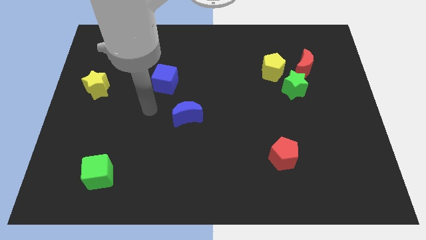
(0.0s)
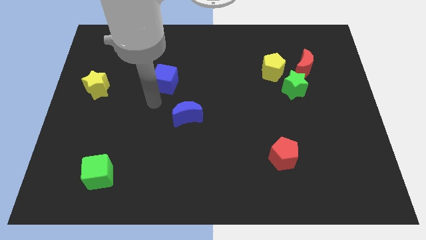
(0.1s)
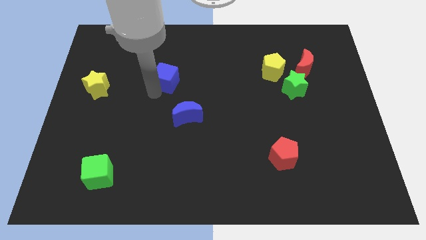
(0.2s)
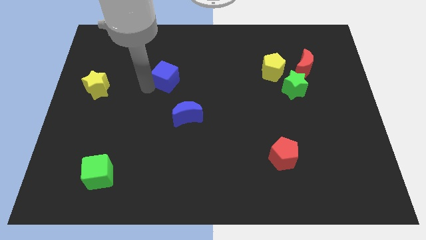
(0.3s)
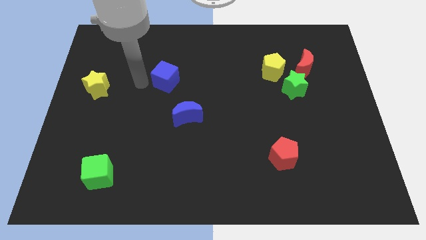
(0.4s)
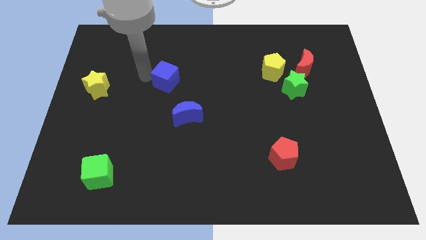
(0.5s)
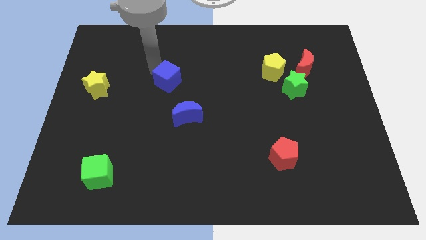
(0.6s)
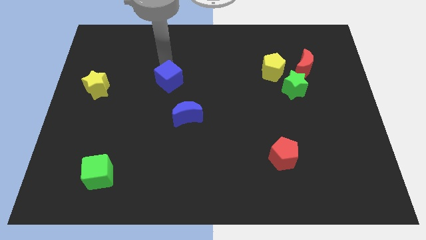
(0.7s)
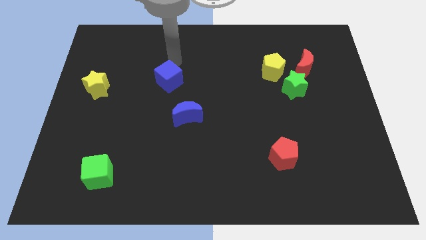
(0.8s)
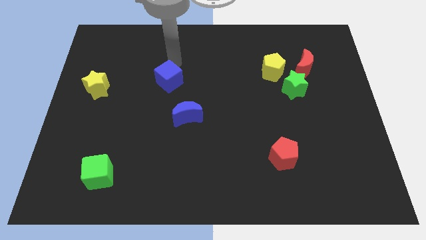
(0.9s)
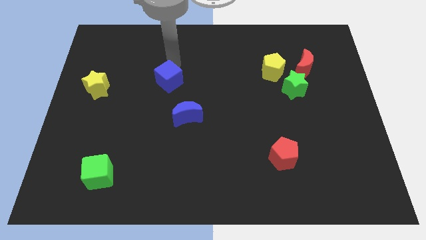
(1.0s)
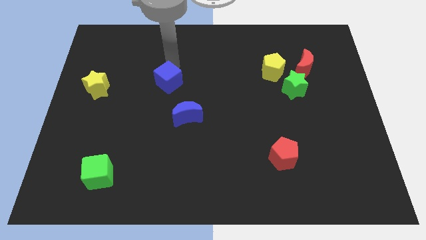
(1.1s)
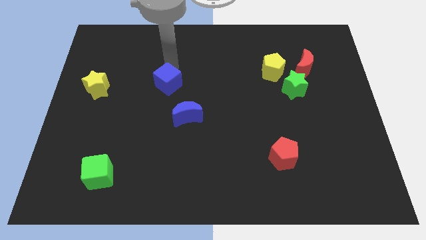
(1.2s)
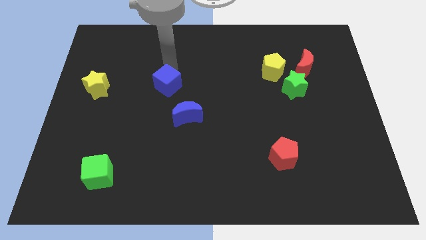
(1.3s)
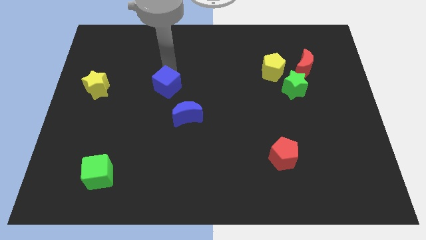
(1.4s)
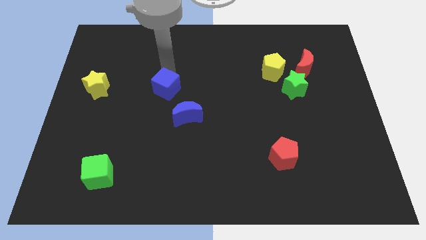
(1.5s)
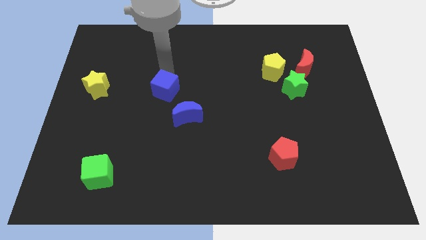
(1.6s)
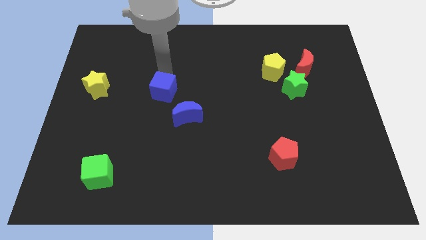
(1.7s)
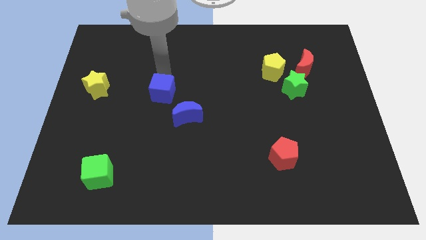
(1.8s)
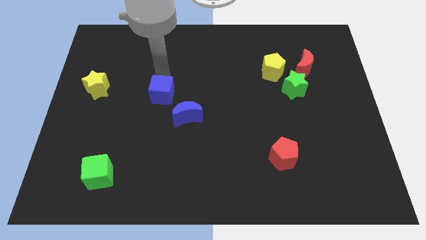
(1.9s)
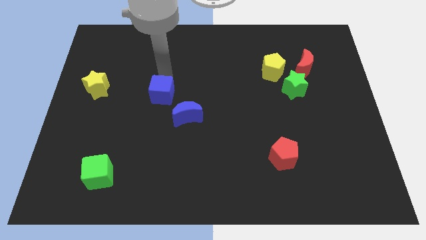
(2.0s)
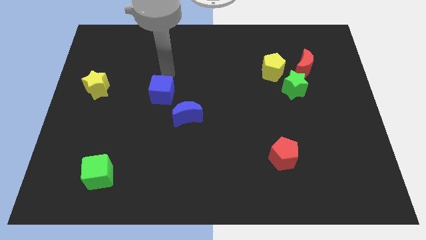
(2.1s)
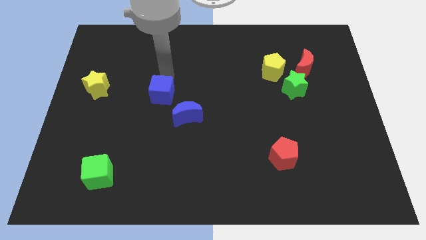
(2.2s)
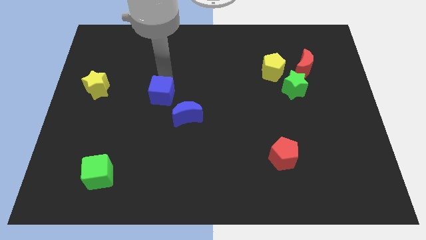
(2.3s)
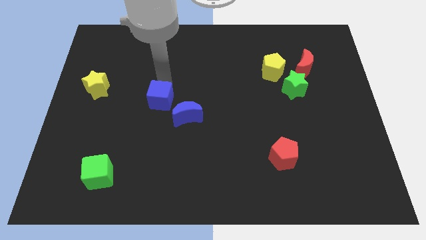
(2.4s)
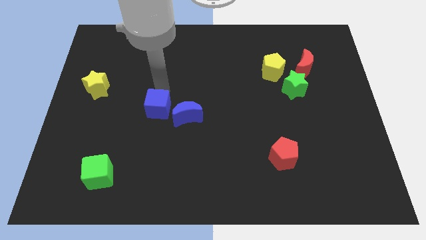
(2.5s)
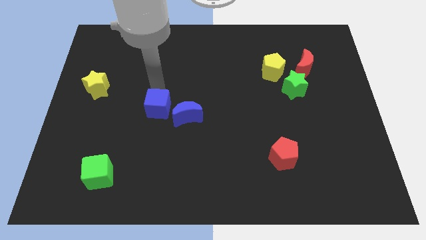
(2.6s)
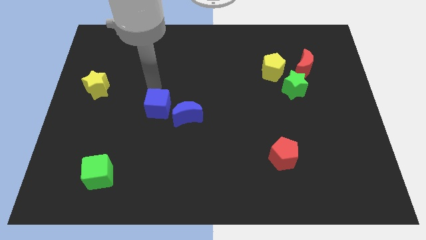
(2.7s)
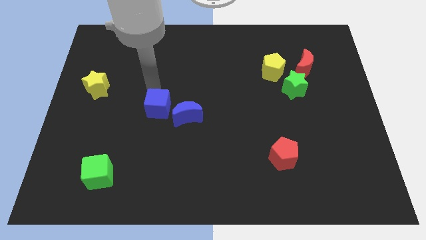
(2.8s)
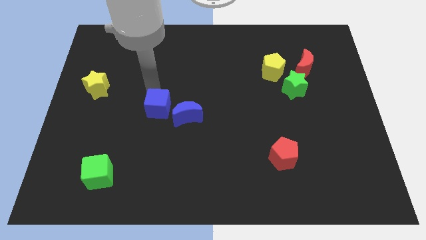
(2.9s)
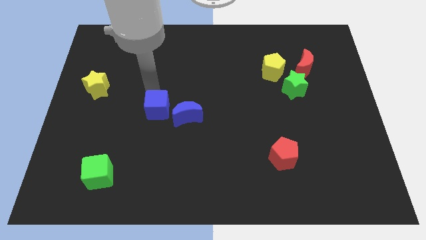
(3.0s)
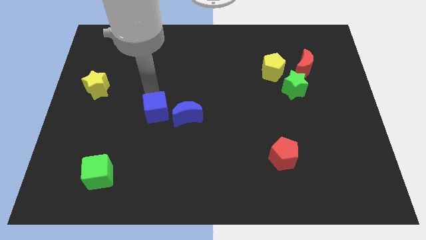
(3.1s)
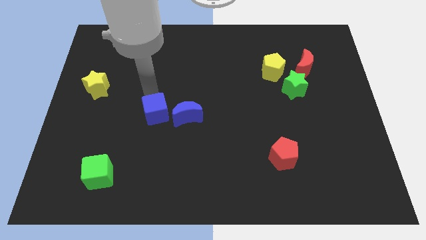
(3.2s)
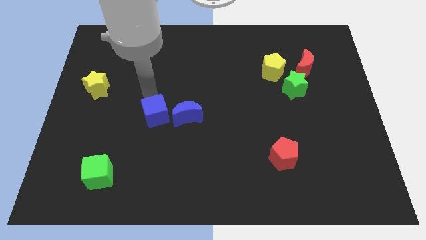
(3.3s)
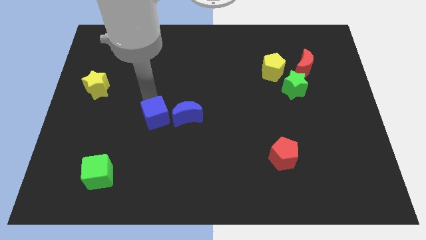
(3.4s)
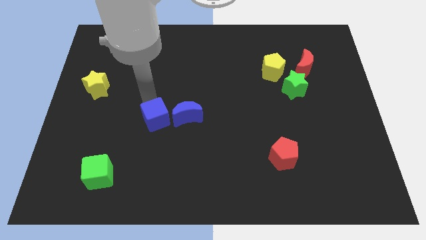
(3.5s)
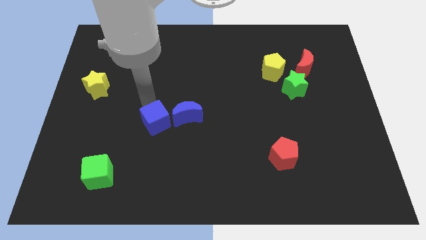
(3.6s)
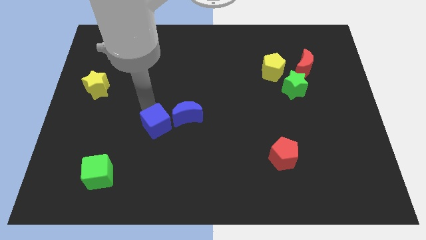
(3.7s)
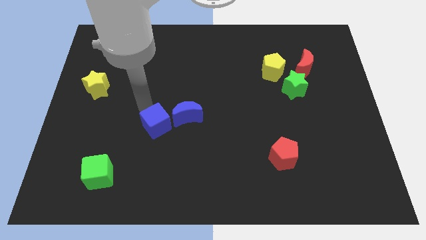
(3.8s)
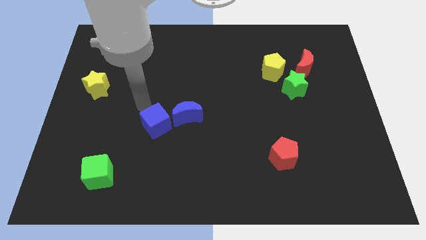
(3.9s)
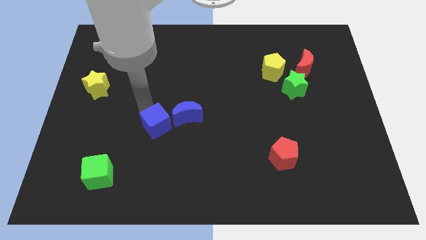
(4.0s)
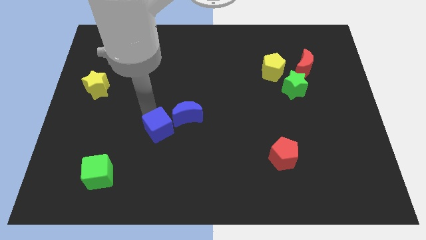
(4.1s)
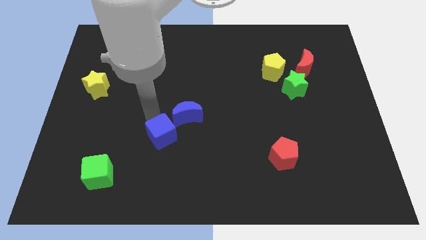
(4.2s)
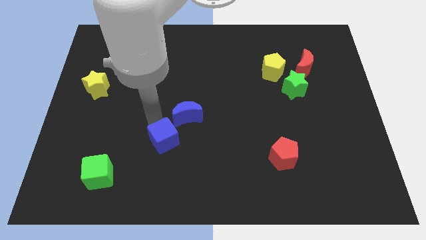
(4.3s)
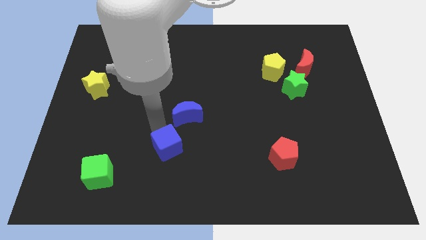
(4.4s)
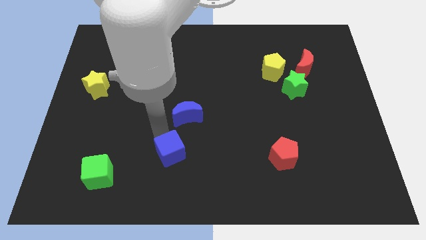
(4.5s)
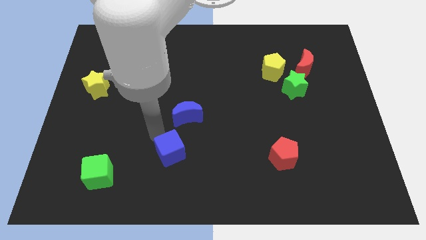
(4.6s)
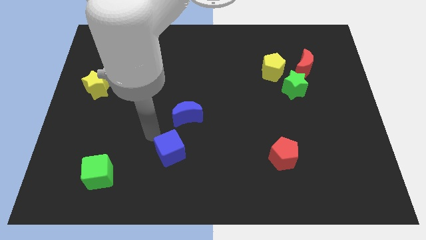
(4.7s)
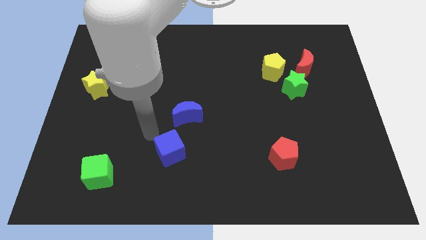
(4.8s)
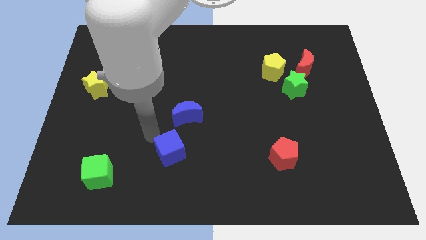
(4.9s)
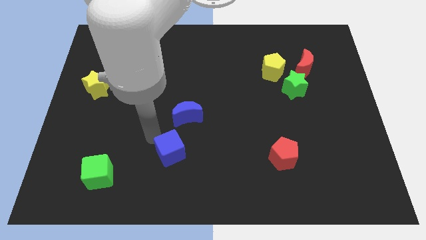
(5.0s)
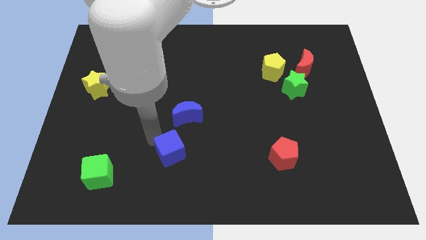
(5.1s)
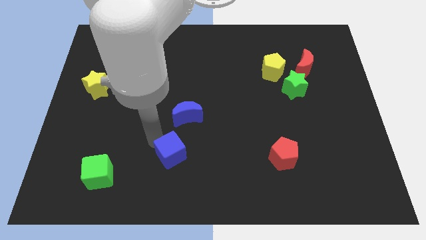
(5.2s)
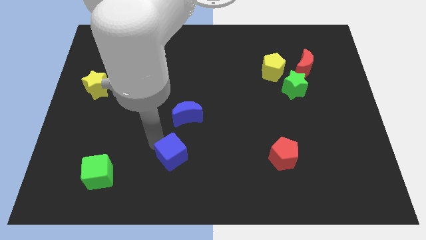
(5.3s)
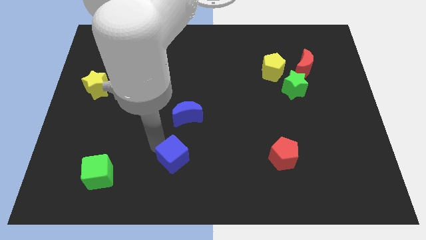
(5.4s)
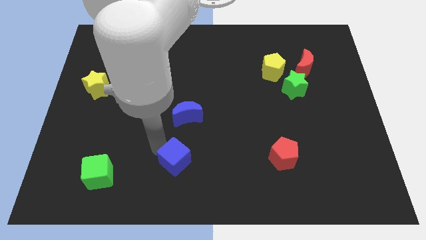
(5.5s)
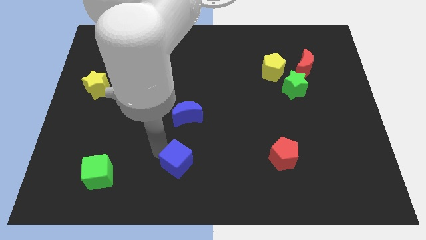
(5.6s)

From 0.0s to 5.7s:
push the blue cube to the bottom side

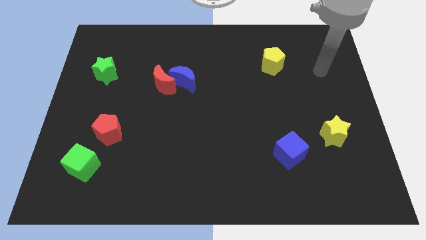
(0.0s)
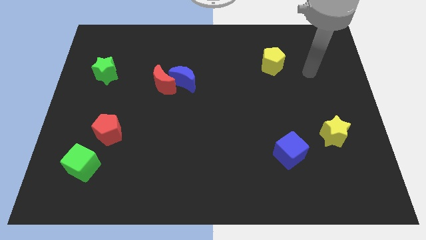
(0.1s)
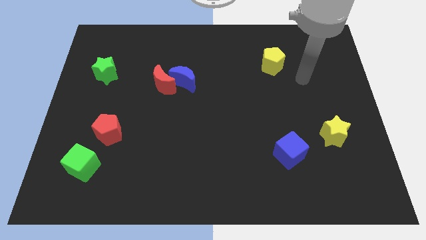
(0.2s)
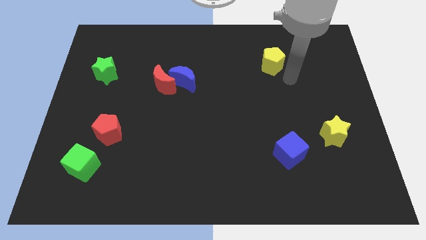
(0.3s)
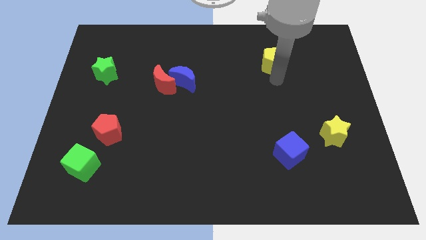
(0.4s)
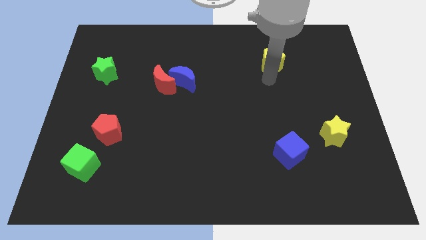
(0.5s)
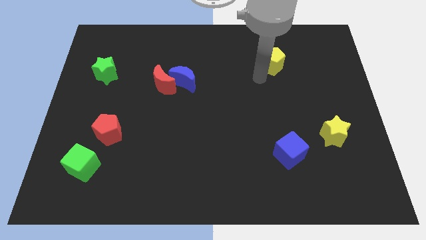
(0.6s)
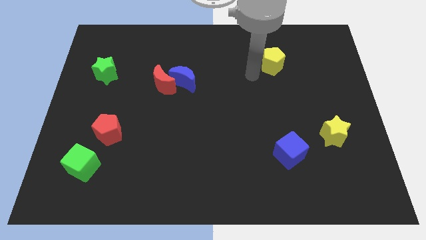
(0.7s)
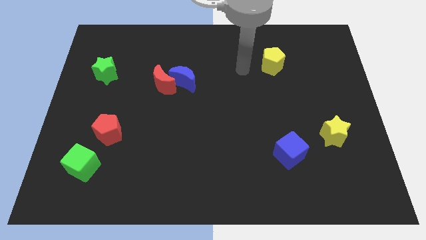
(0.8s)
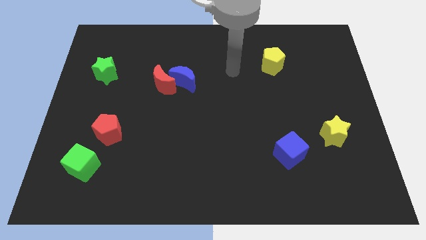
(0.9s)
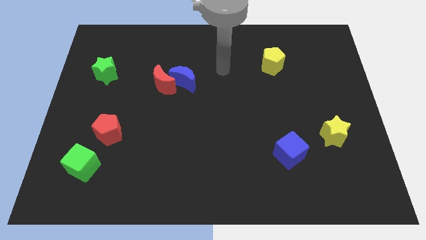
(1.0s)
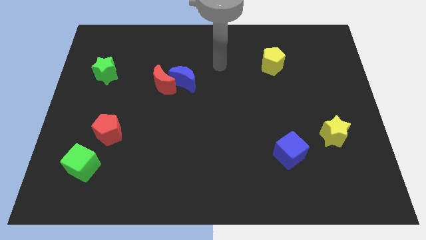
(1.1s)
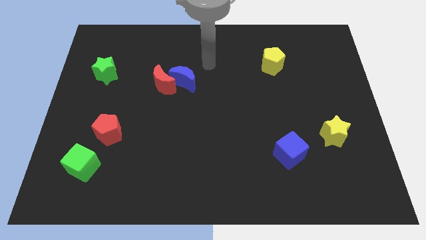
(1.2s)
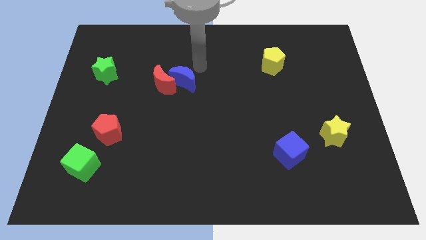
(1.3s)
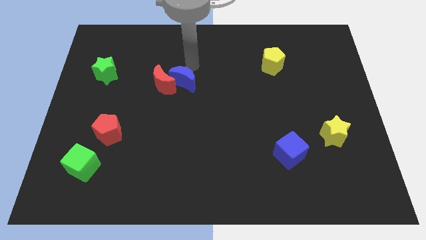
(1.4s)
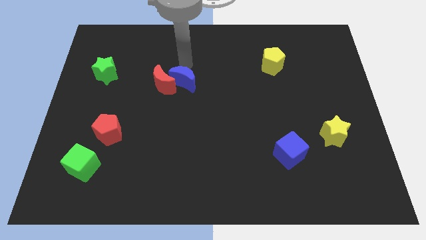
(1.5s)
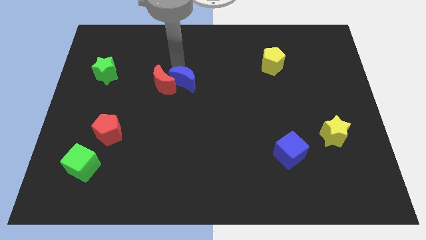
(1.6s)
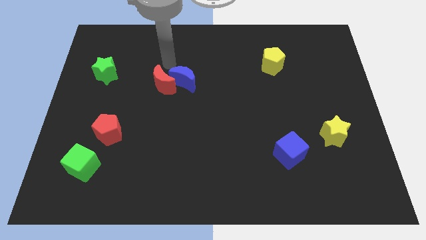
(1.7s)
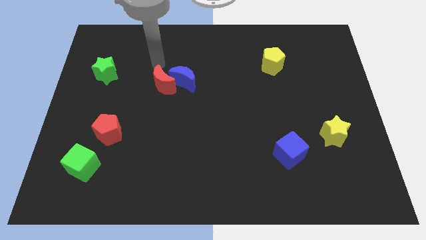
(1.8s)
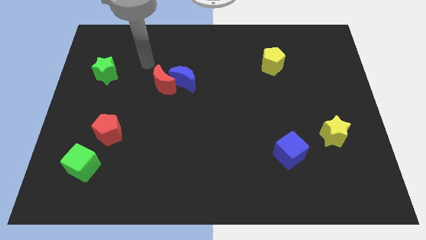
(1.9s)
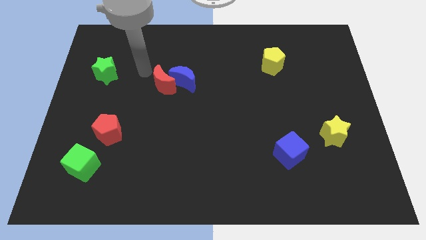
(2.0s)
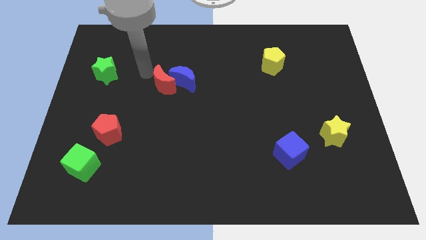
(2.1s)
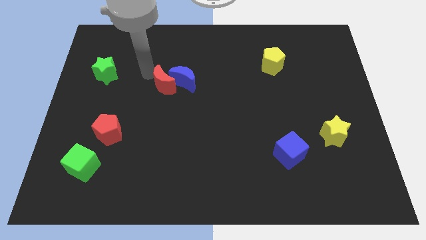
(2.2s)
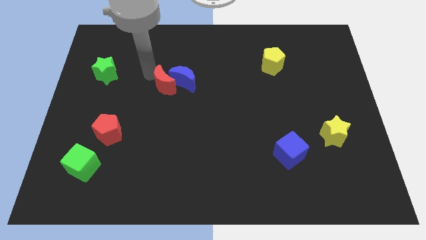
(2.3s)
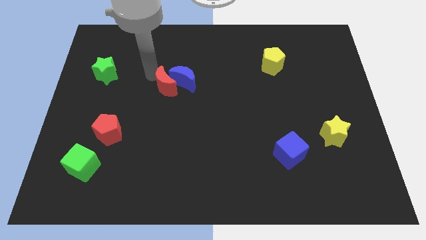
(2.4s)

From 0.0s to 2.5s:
move the red moon to the center
